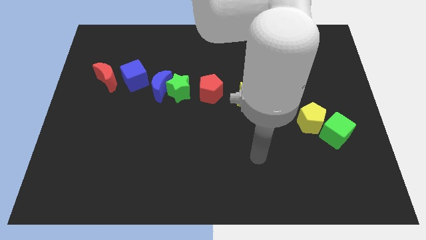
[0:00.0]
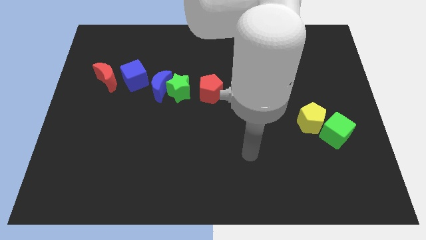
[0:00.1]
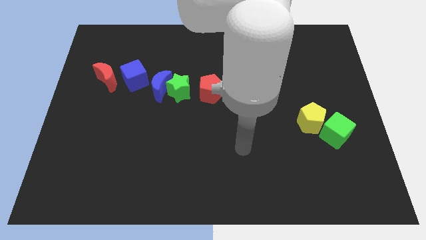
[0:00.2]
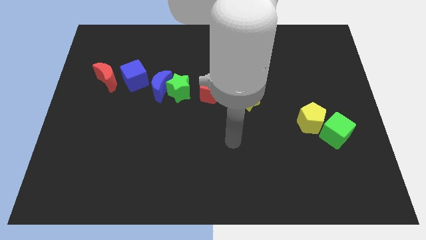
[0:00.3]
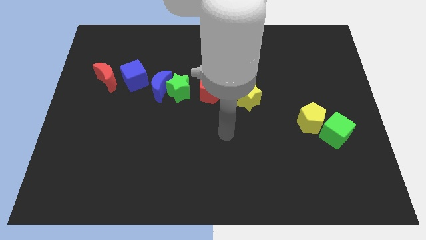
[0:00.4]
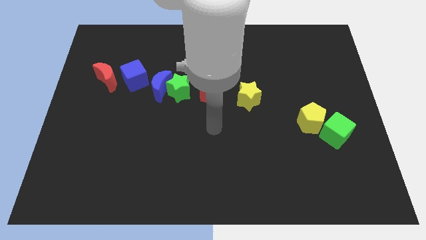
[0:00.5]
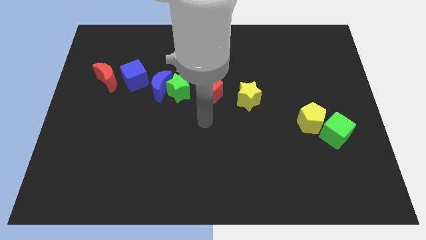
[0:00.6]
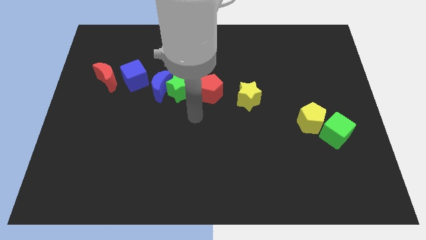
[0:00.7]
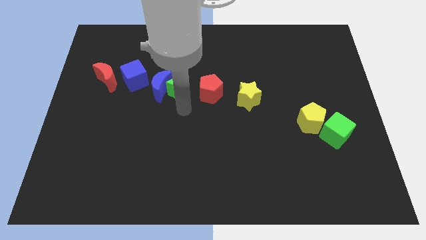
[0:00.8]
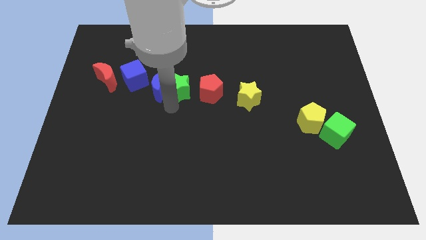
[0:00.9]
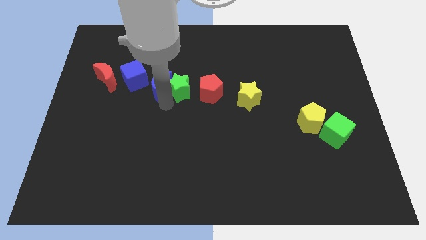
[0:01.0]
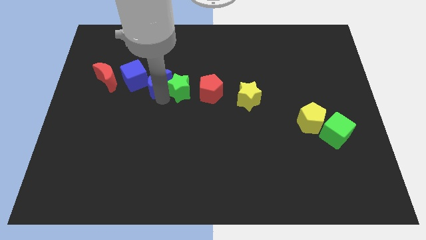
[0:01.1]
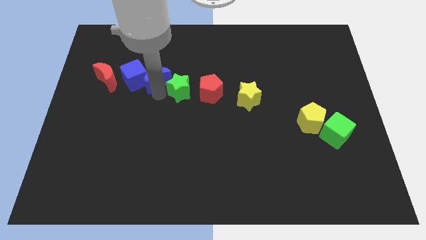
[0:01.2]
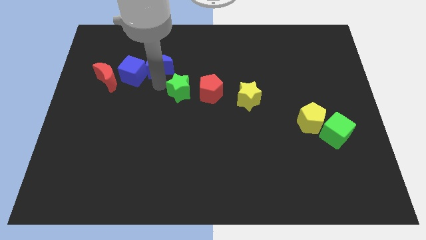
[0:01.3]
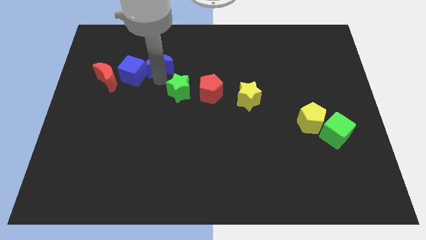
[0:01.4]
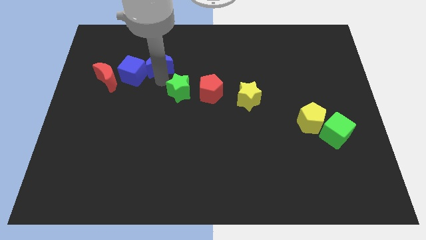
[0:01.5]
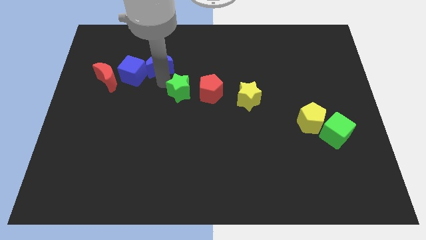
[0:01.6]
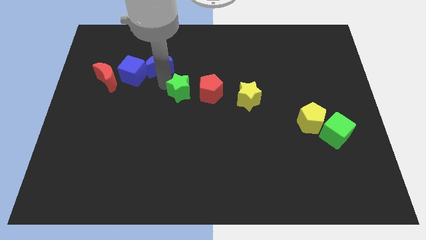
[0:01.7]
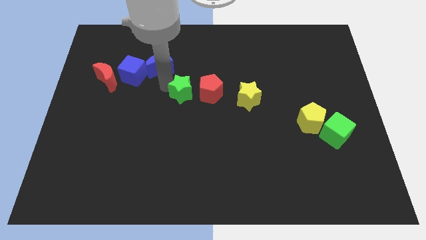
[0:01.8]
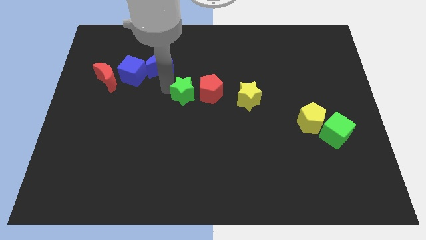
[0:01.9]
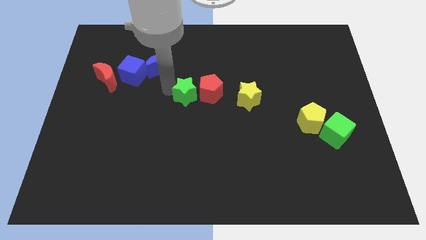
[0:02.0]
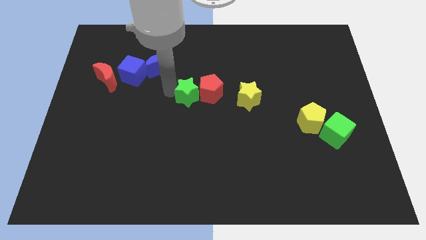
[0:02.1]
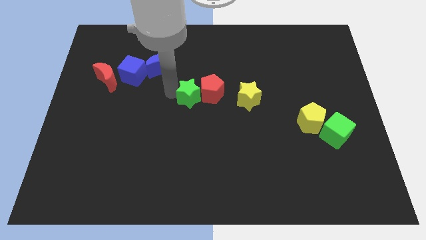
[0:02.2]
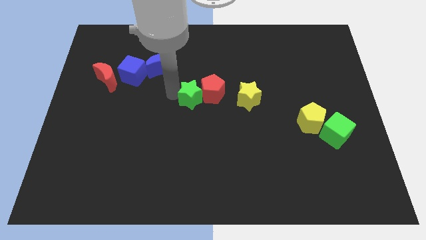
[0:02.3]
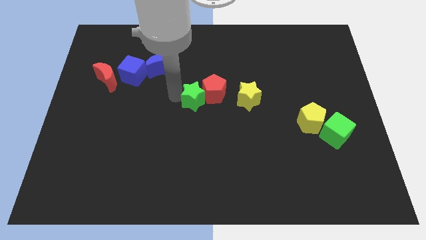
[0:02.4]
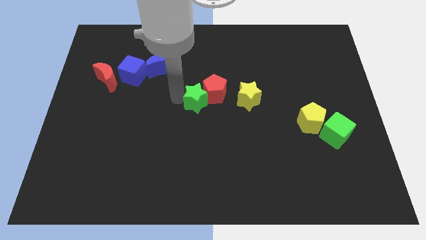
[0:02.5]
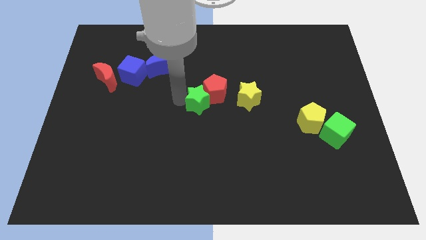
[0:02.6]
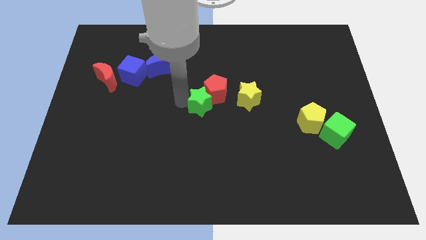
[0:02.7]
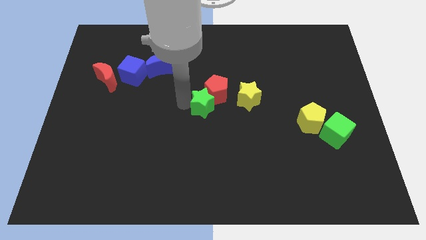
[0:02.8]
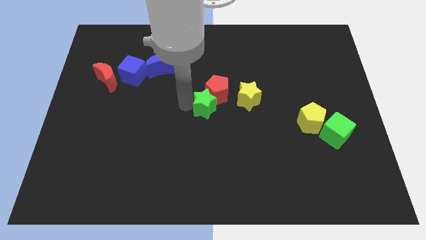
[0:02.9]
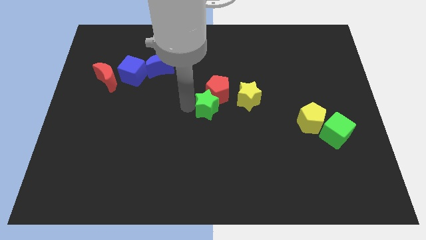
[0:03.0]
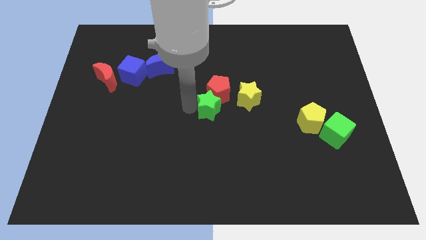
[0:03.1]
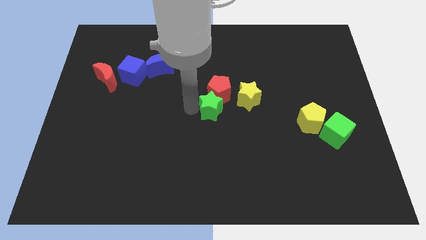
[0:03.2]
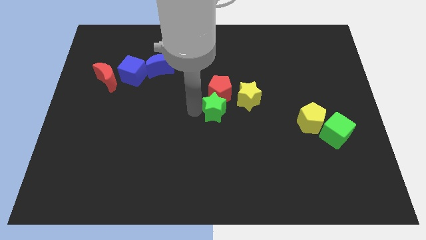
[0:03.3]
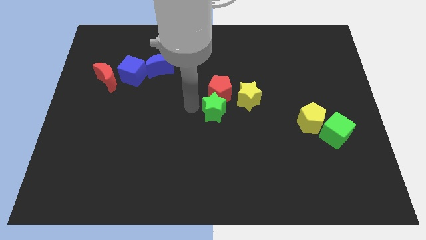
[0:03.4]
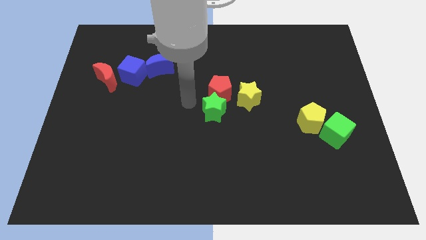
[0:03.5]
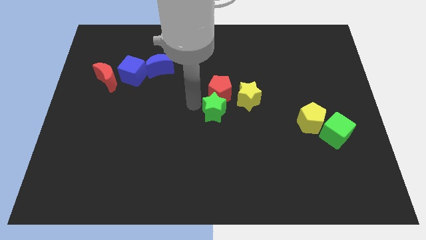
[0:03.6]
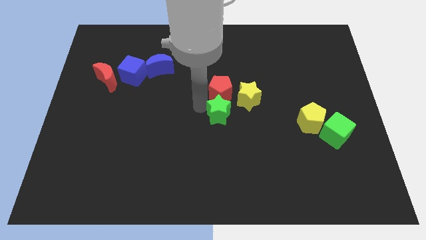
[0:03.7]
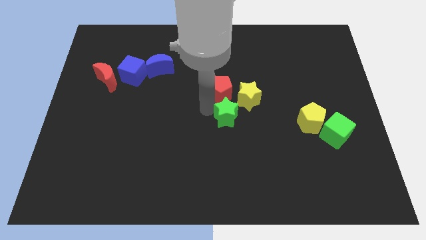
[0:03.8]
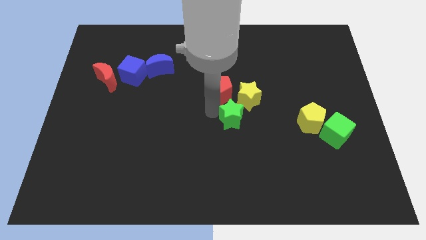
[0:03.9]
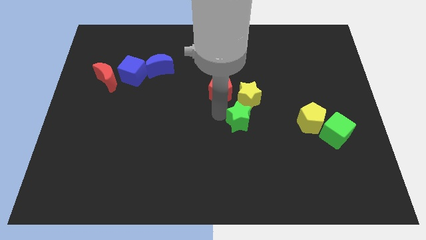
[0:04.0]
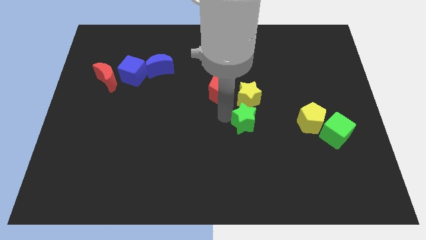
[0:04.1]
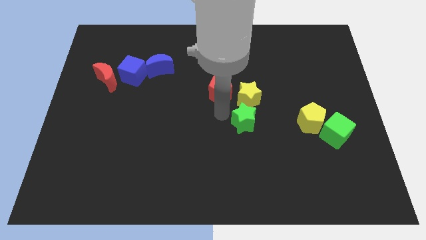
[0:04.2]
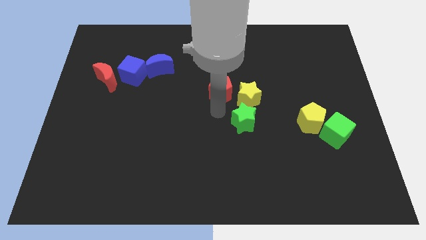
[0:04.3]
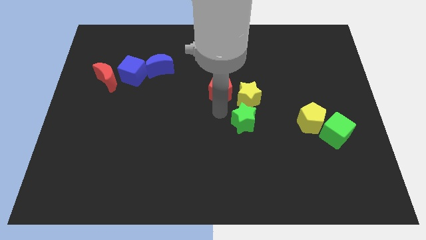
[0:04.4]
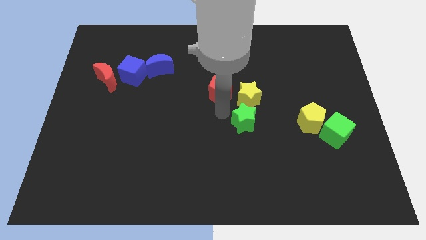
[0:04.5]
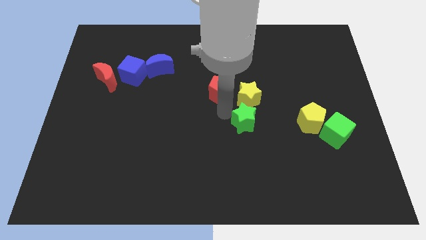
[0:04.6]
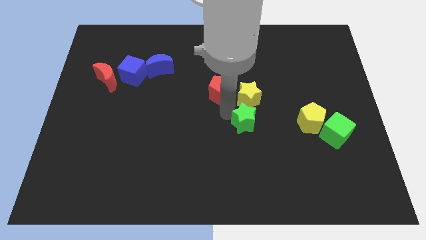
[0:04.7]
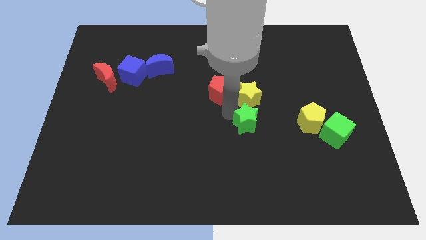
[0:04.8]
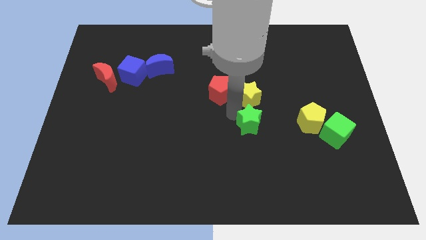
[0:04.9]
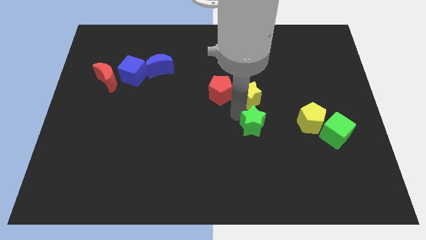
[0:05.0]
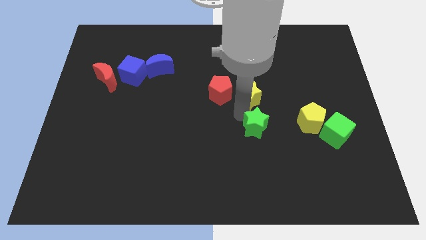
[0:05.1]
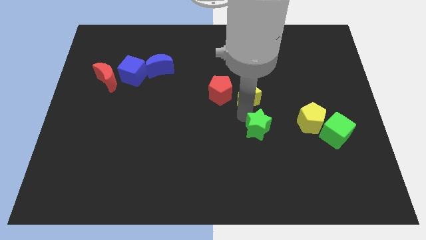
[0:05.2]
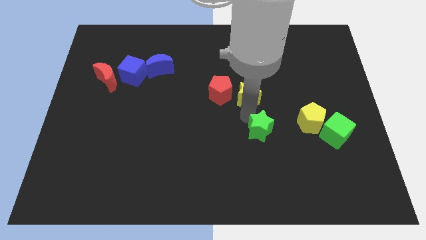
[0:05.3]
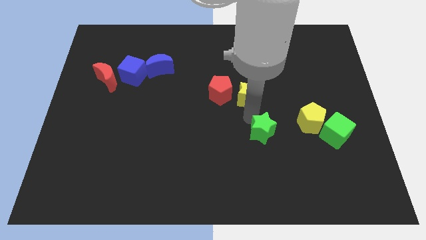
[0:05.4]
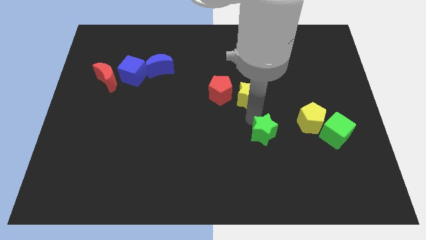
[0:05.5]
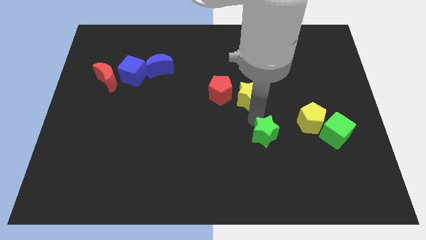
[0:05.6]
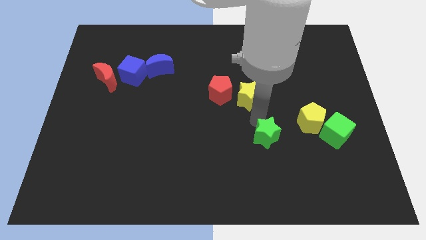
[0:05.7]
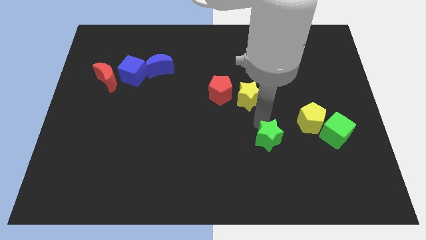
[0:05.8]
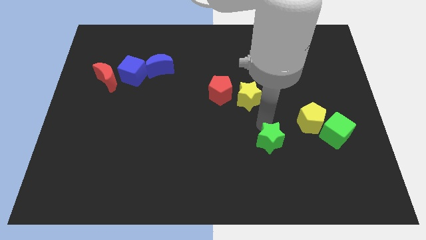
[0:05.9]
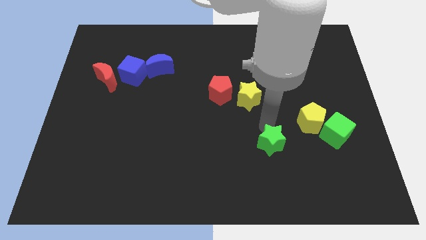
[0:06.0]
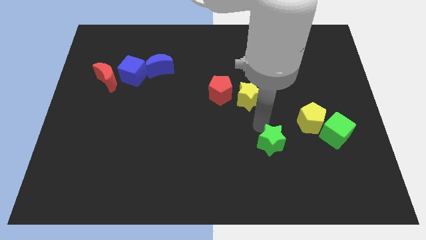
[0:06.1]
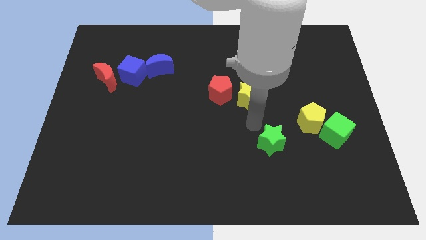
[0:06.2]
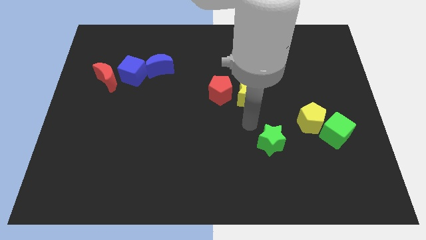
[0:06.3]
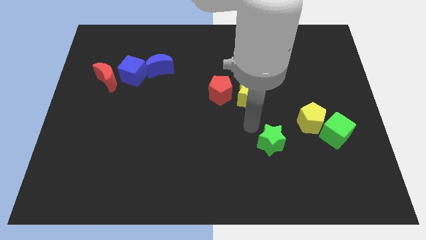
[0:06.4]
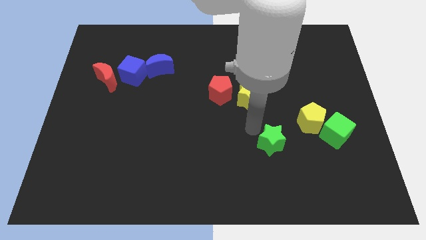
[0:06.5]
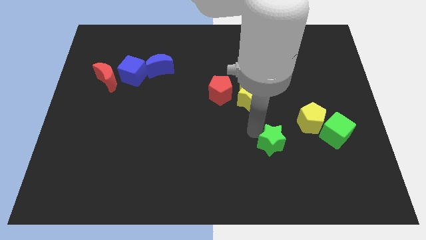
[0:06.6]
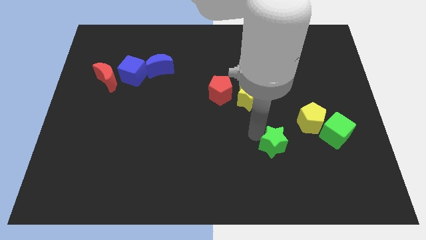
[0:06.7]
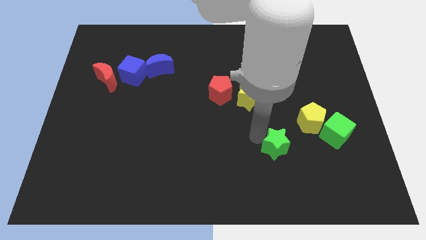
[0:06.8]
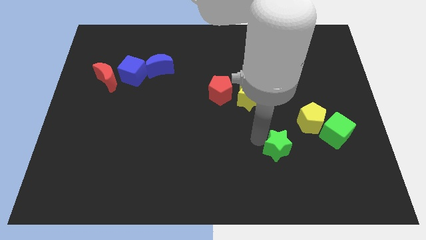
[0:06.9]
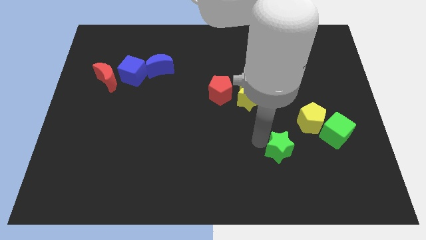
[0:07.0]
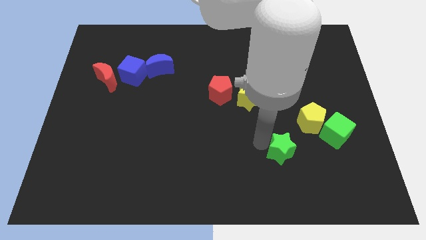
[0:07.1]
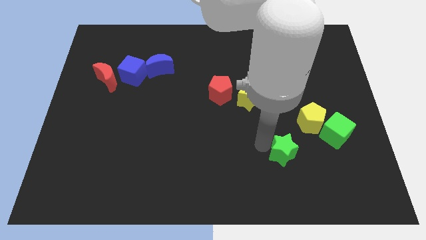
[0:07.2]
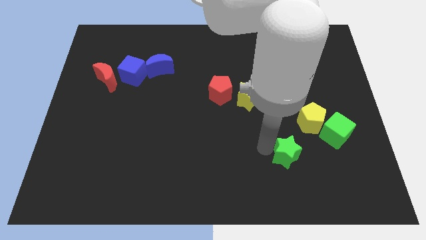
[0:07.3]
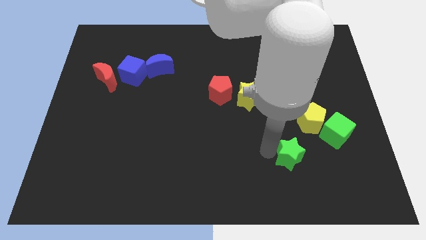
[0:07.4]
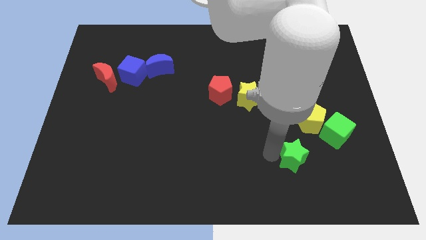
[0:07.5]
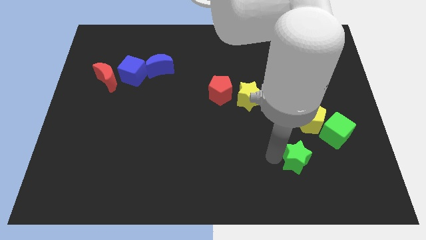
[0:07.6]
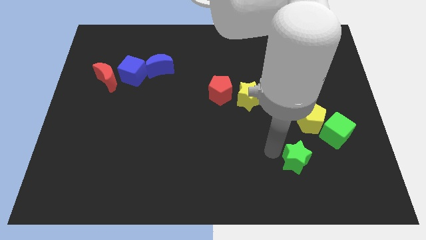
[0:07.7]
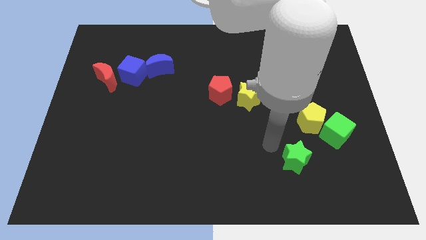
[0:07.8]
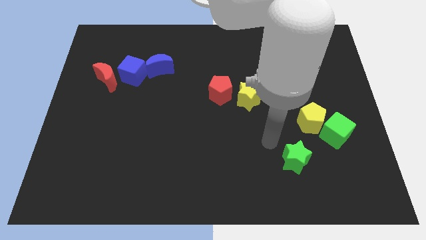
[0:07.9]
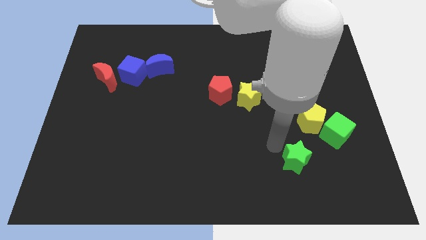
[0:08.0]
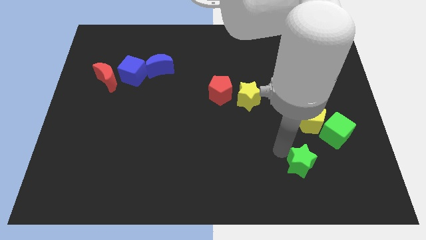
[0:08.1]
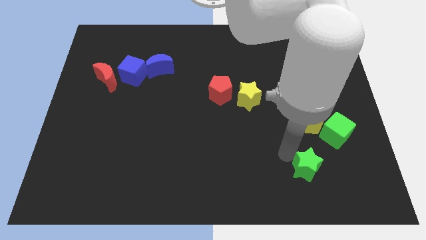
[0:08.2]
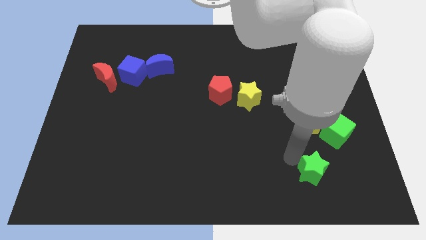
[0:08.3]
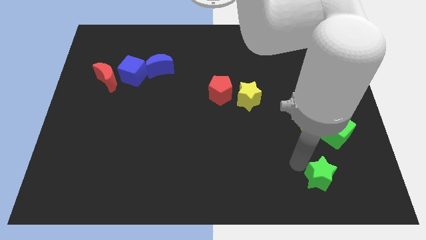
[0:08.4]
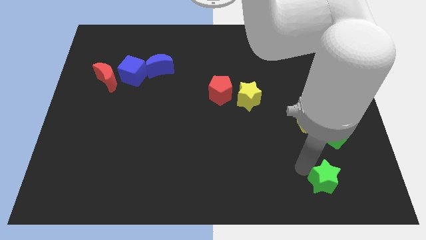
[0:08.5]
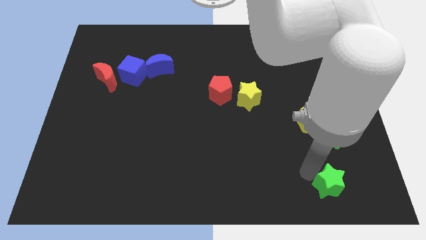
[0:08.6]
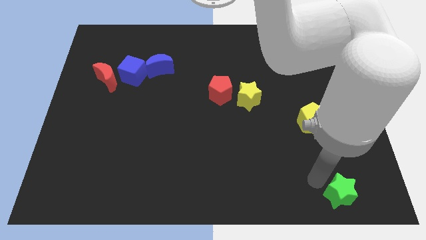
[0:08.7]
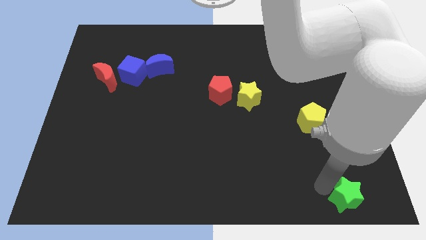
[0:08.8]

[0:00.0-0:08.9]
push the green star to the bottom right corner
